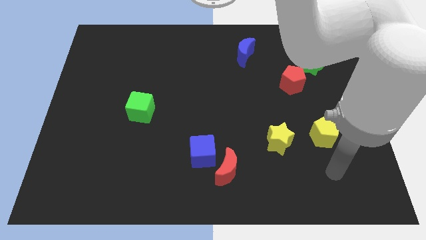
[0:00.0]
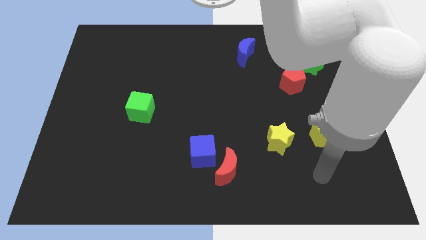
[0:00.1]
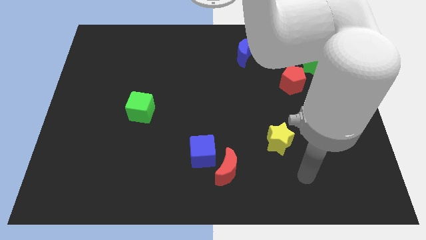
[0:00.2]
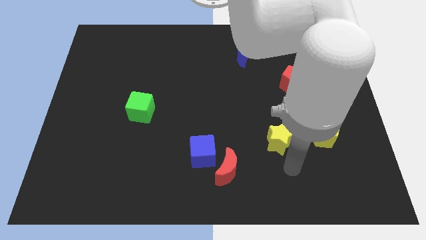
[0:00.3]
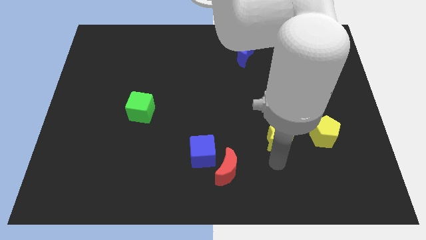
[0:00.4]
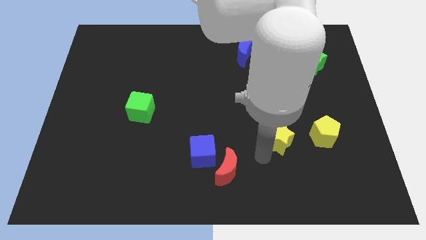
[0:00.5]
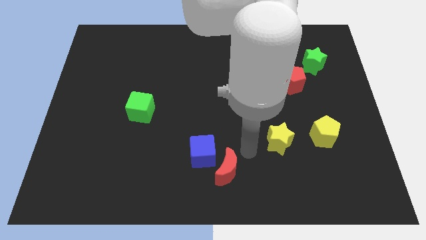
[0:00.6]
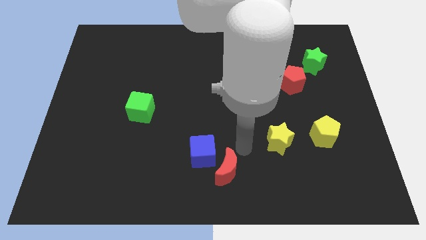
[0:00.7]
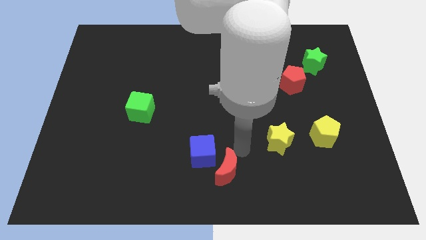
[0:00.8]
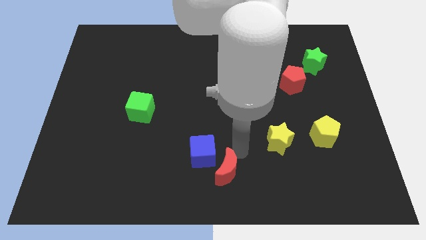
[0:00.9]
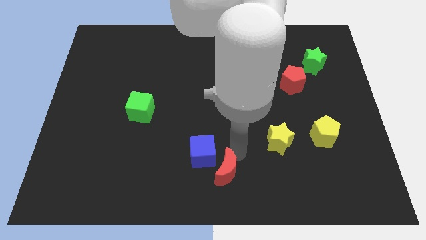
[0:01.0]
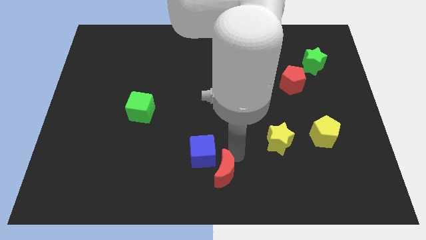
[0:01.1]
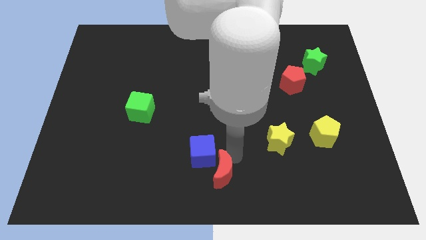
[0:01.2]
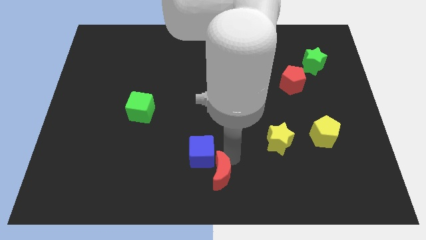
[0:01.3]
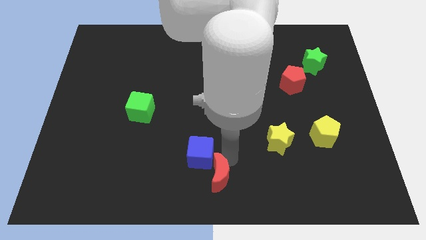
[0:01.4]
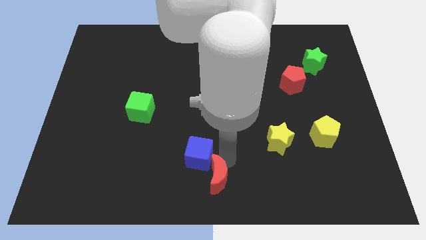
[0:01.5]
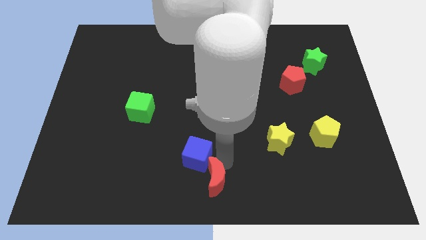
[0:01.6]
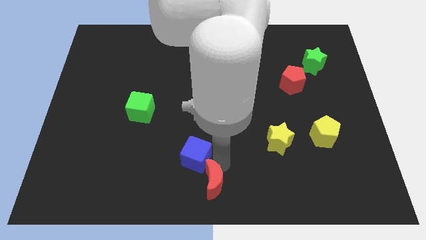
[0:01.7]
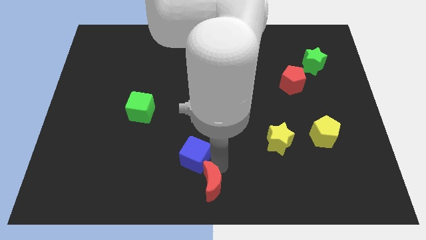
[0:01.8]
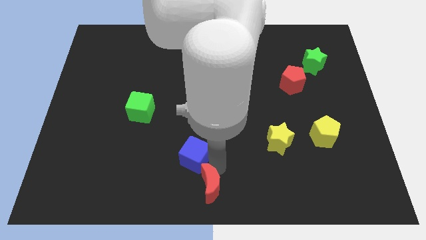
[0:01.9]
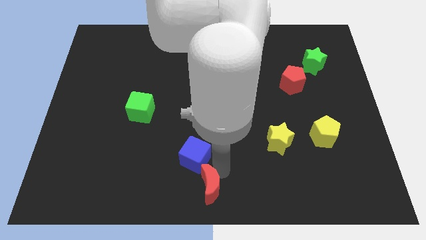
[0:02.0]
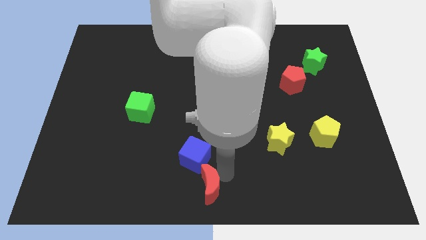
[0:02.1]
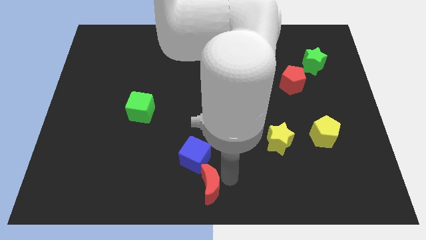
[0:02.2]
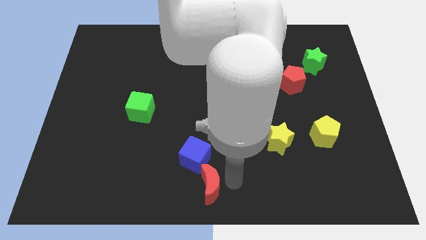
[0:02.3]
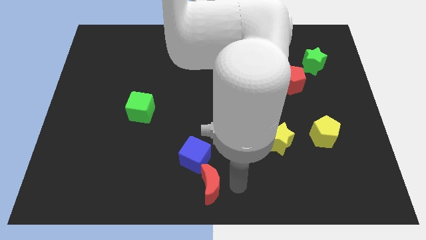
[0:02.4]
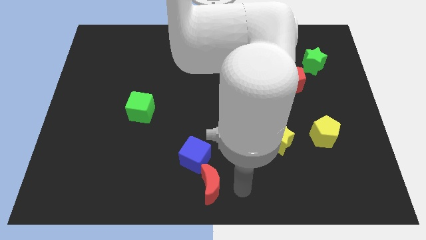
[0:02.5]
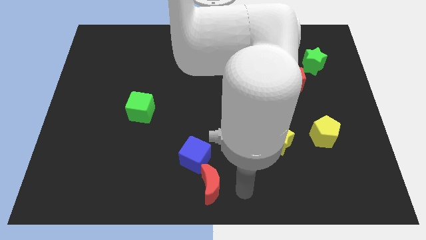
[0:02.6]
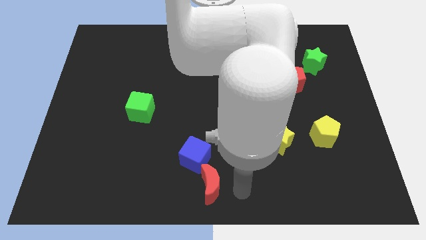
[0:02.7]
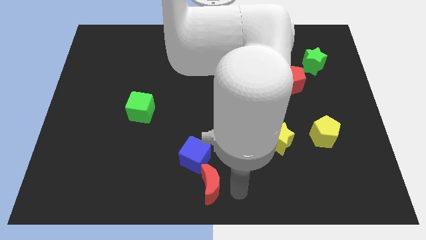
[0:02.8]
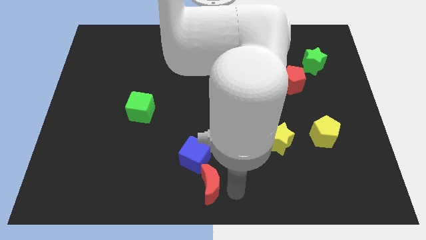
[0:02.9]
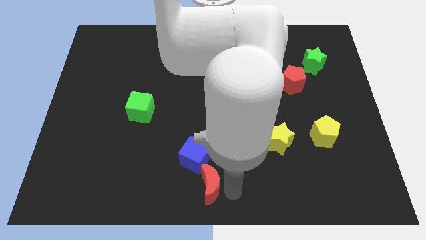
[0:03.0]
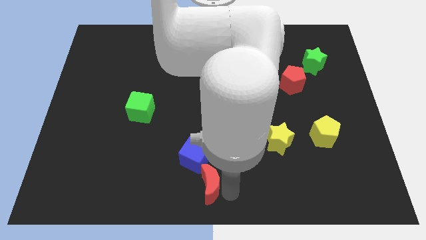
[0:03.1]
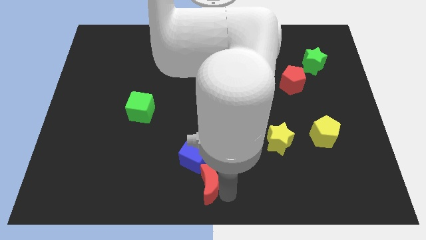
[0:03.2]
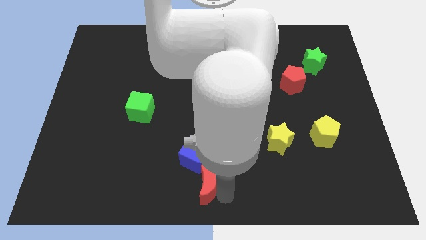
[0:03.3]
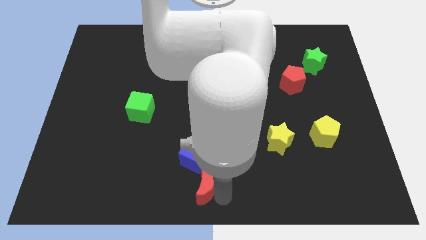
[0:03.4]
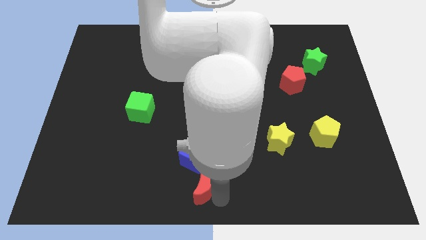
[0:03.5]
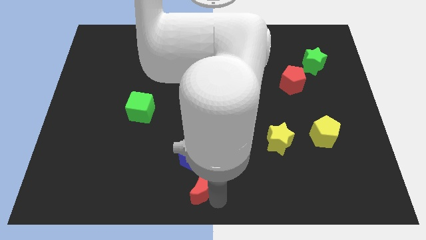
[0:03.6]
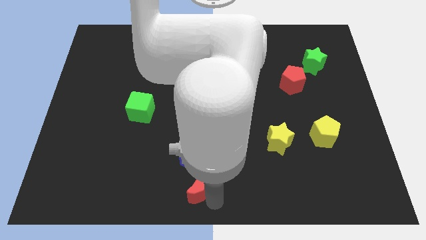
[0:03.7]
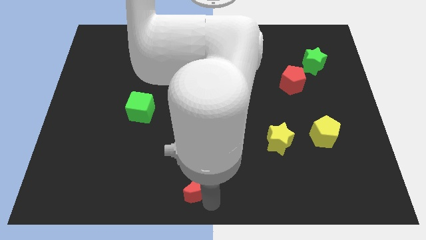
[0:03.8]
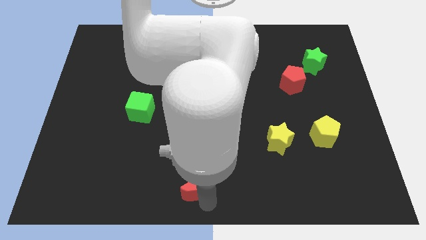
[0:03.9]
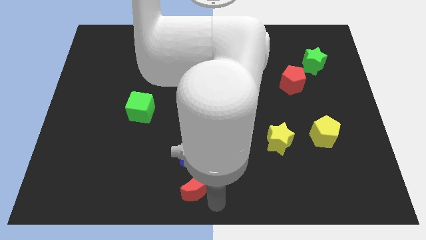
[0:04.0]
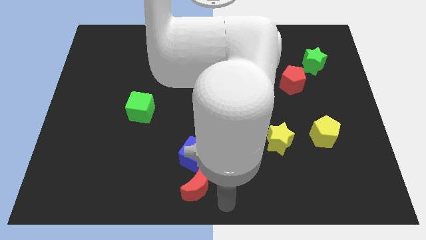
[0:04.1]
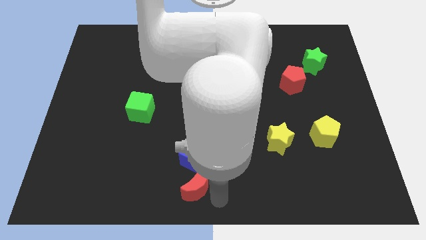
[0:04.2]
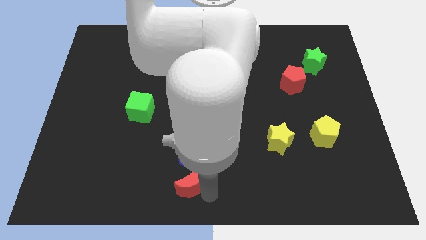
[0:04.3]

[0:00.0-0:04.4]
push the red moon to the left a little bit

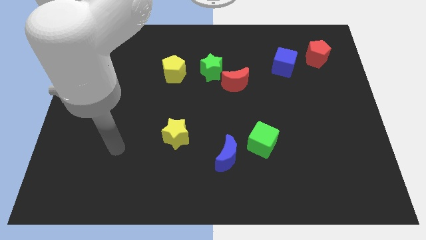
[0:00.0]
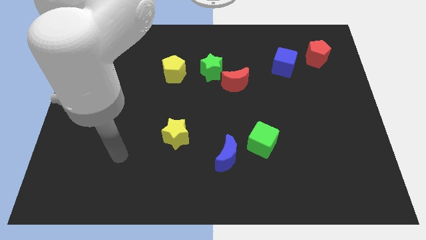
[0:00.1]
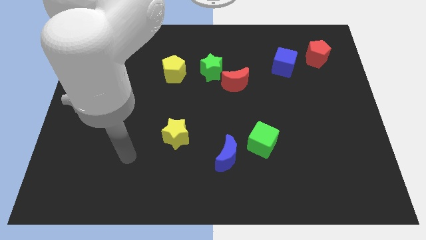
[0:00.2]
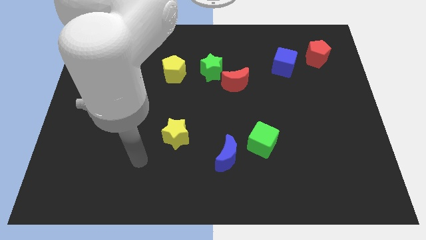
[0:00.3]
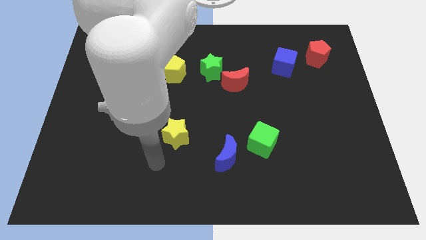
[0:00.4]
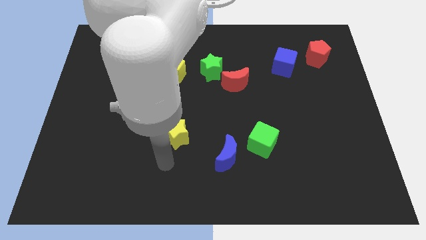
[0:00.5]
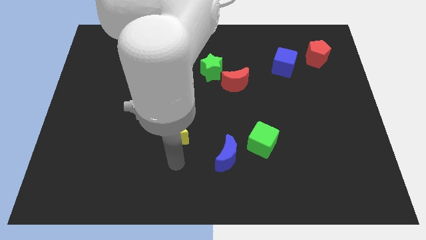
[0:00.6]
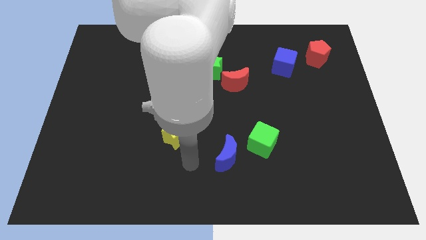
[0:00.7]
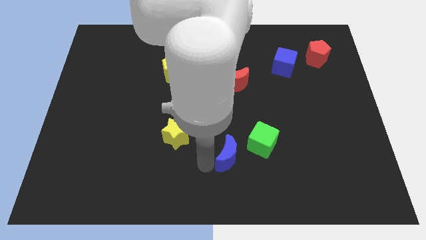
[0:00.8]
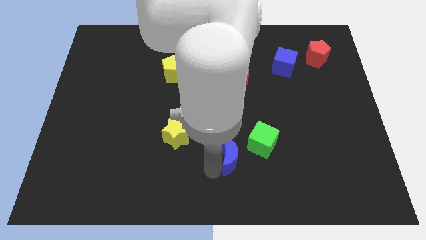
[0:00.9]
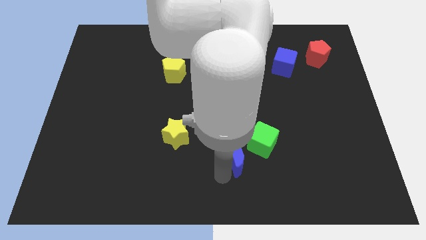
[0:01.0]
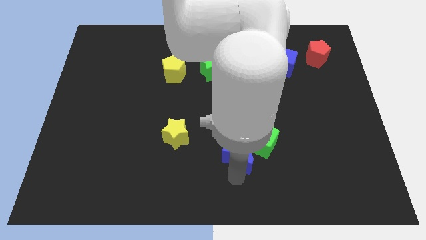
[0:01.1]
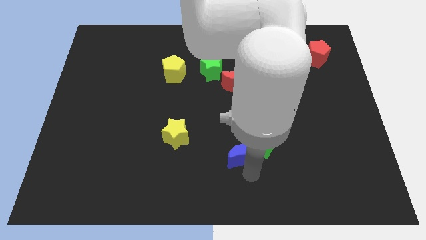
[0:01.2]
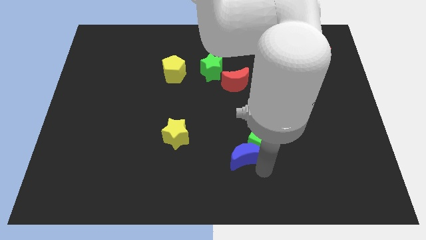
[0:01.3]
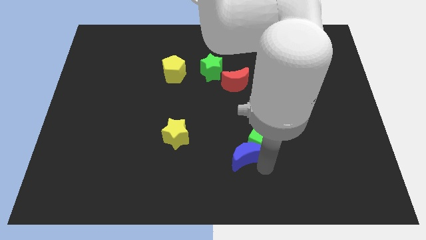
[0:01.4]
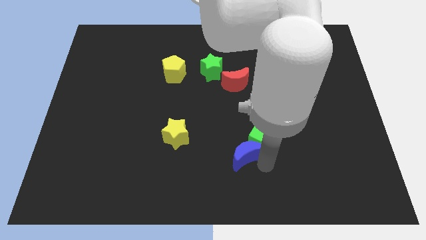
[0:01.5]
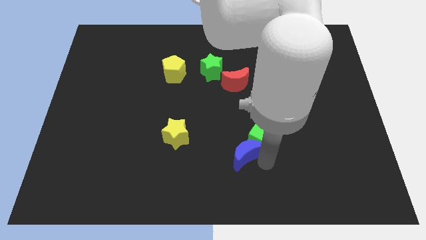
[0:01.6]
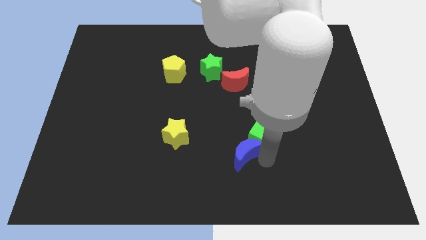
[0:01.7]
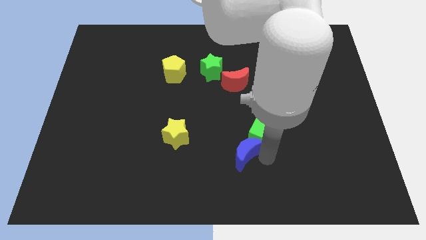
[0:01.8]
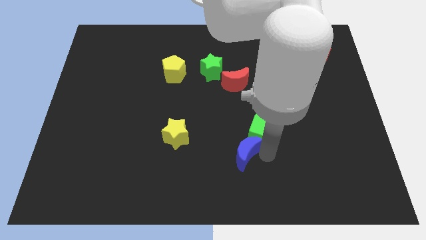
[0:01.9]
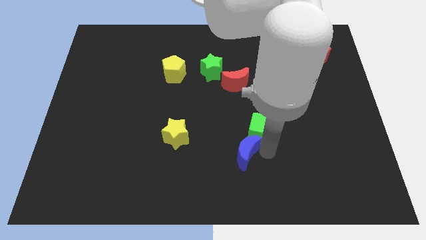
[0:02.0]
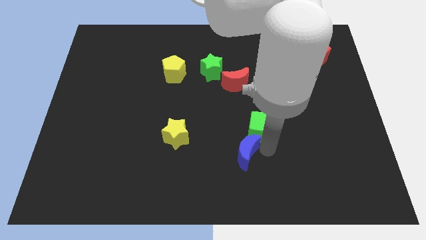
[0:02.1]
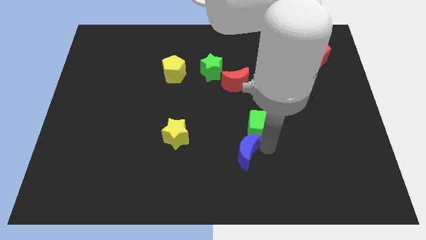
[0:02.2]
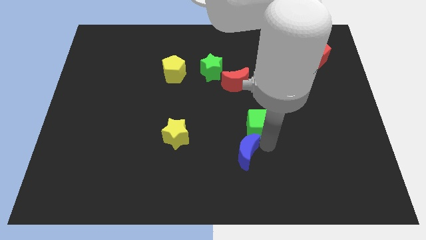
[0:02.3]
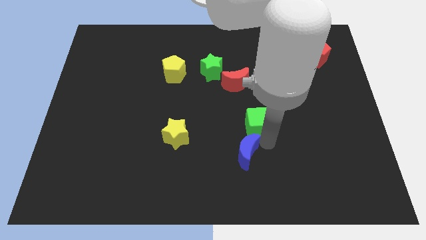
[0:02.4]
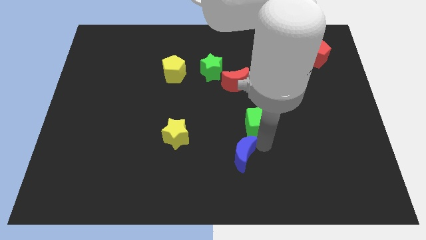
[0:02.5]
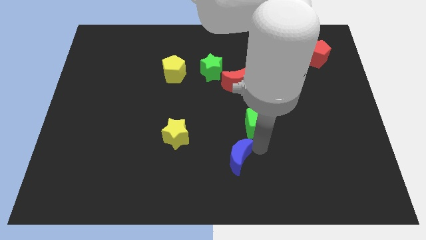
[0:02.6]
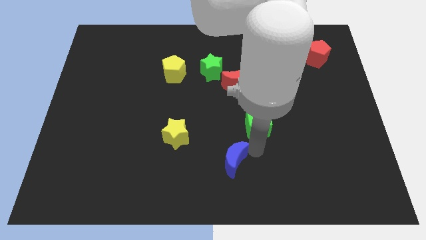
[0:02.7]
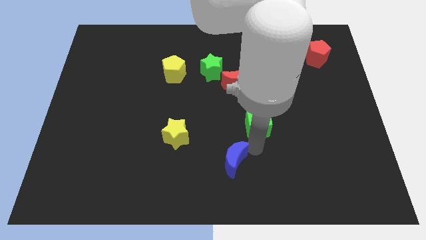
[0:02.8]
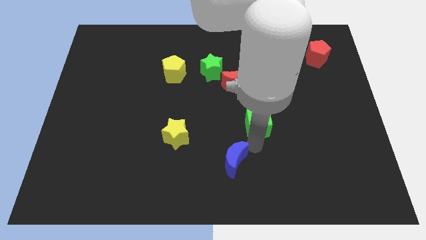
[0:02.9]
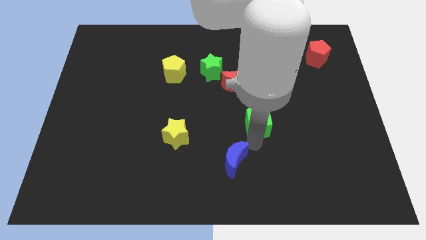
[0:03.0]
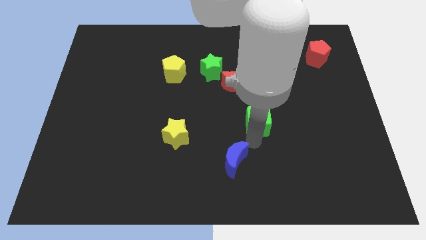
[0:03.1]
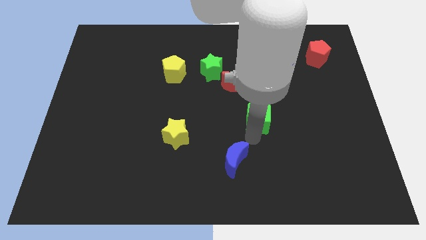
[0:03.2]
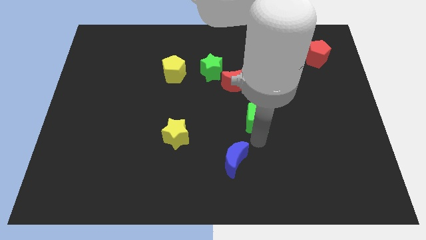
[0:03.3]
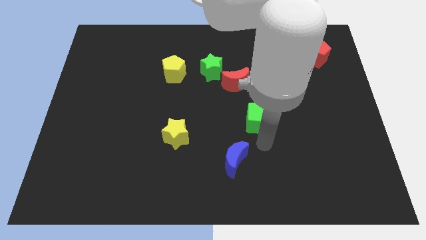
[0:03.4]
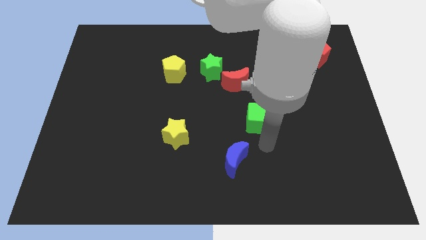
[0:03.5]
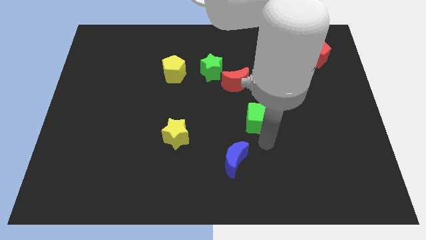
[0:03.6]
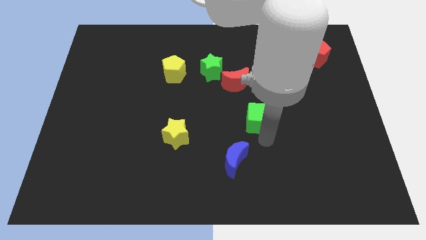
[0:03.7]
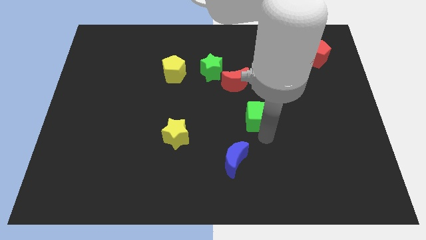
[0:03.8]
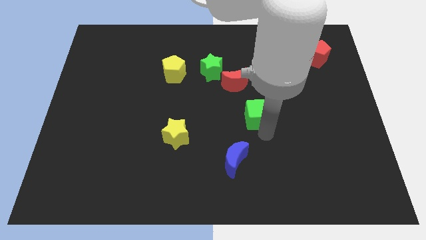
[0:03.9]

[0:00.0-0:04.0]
slightly move the green cube upwards

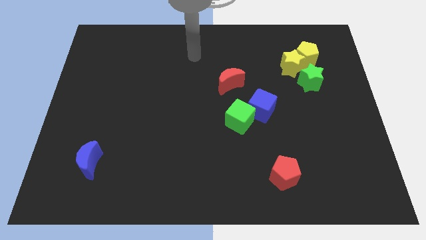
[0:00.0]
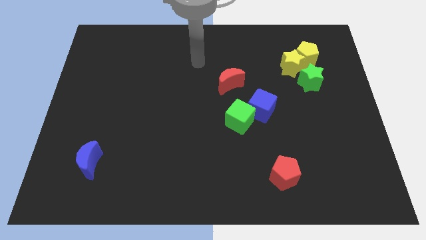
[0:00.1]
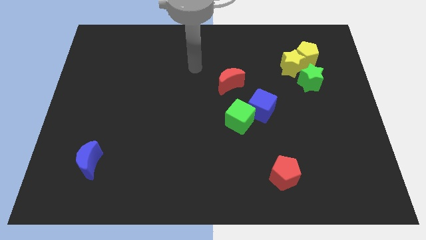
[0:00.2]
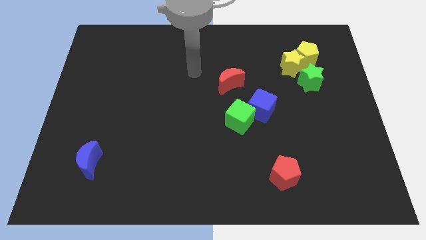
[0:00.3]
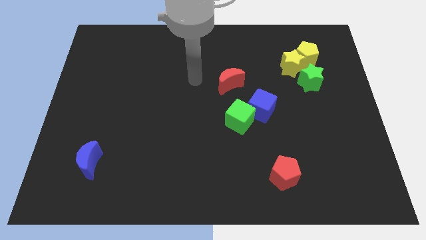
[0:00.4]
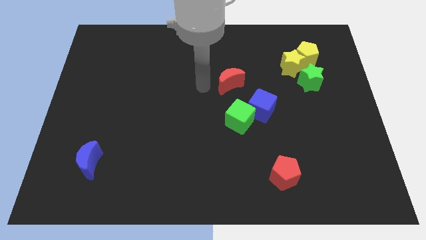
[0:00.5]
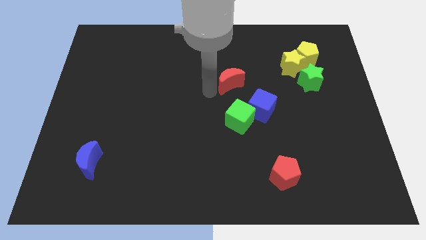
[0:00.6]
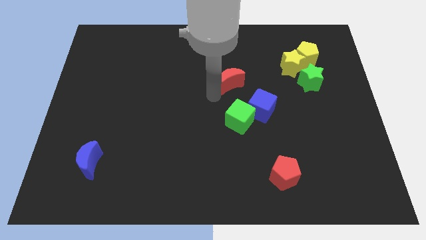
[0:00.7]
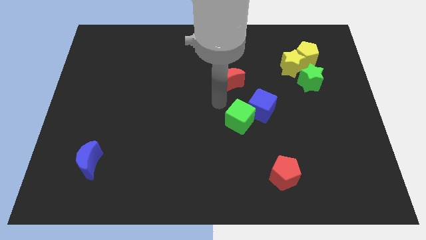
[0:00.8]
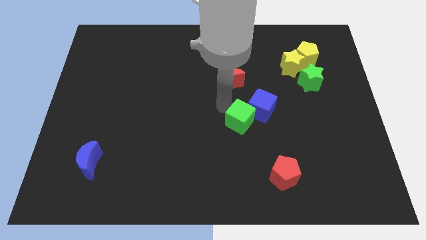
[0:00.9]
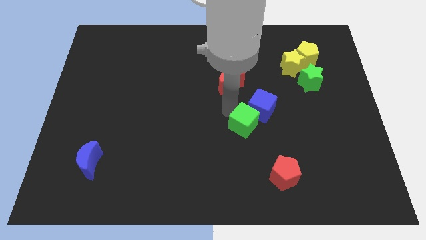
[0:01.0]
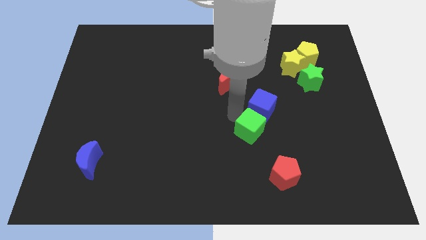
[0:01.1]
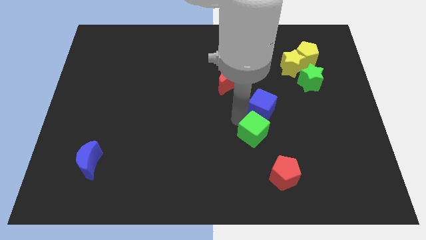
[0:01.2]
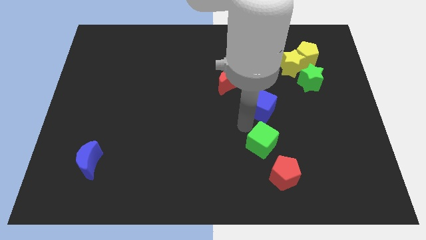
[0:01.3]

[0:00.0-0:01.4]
slide the green cube a bit downwards and to the right diagonally
